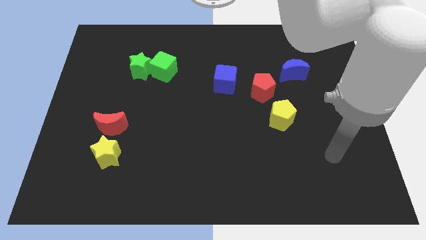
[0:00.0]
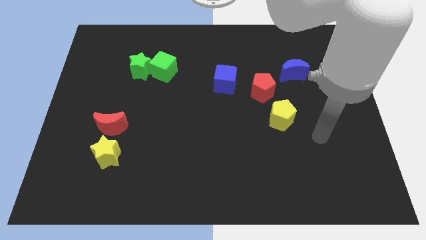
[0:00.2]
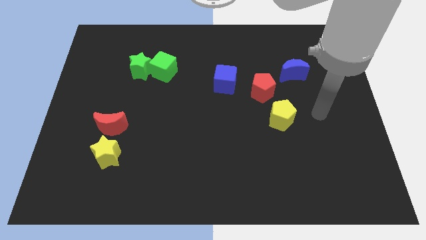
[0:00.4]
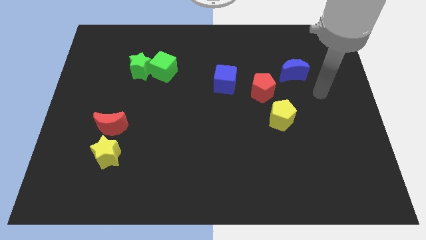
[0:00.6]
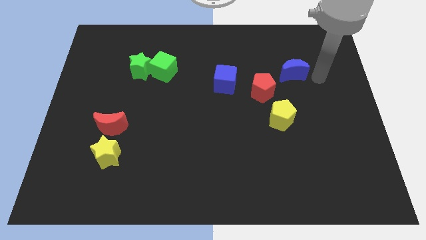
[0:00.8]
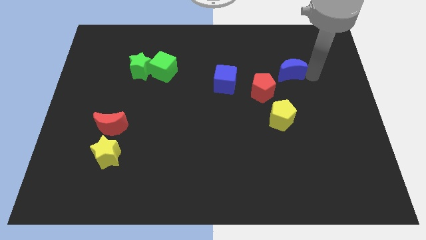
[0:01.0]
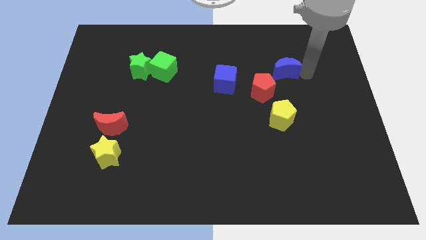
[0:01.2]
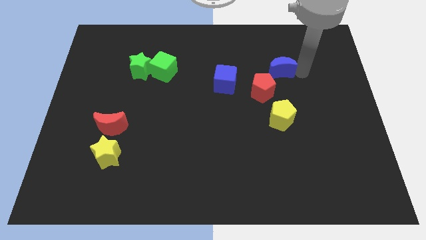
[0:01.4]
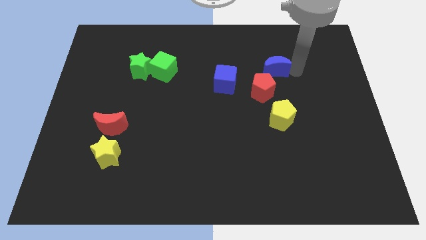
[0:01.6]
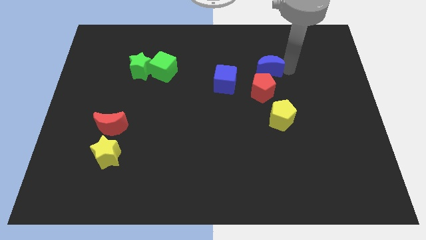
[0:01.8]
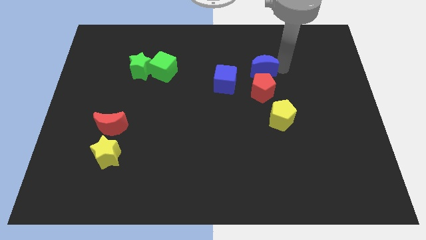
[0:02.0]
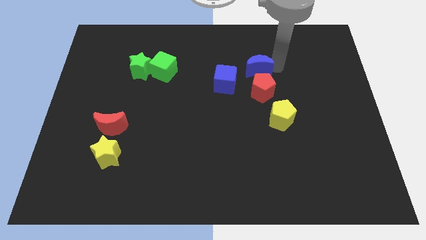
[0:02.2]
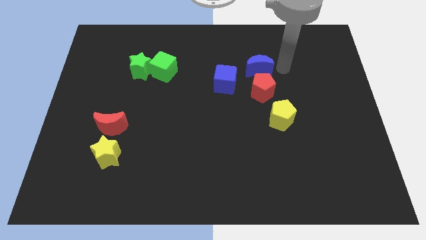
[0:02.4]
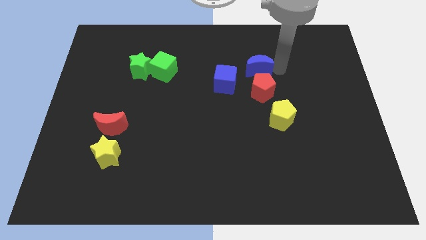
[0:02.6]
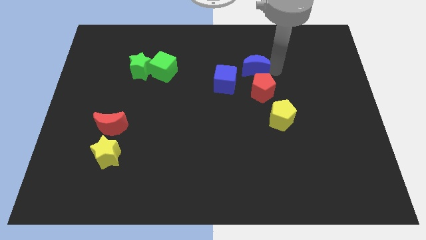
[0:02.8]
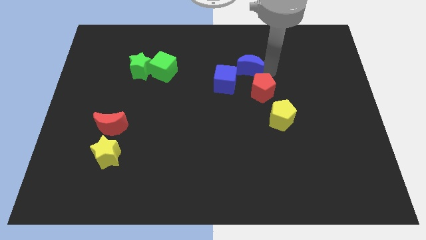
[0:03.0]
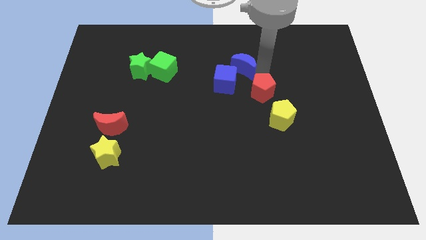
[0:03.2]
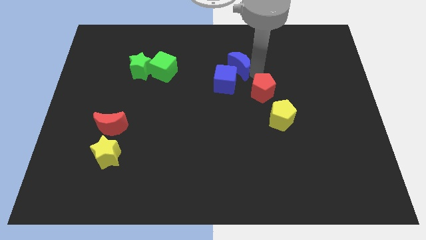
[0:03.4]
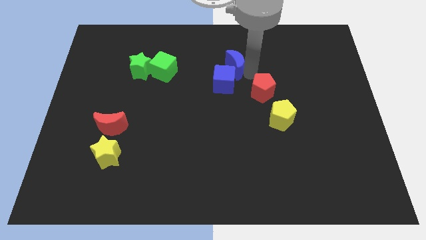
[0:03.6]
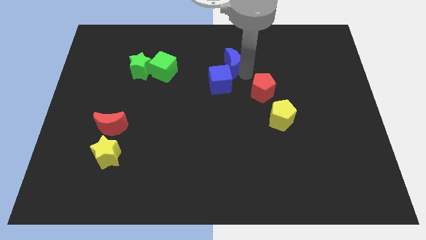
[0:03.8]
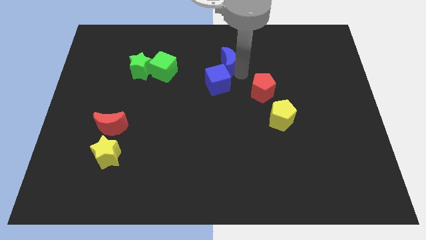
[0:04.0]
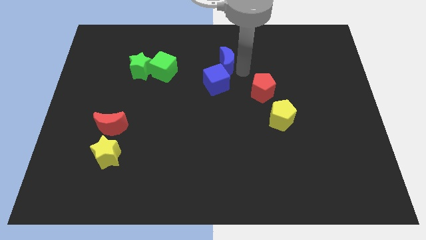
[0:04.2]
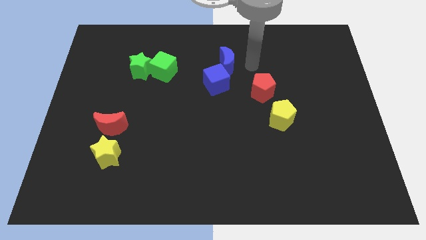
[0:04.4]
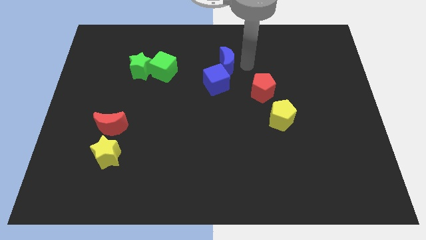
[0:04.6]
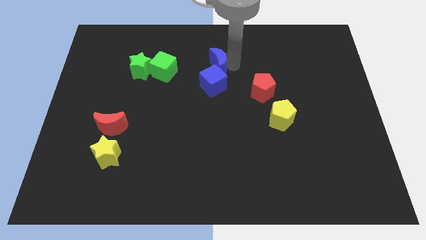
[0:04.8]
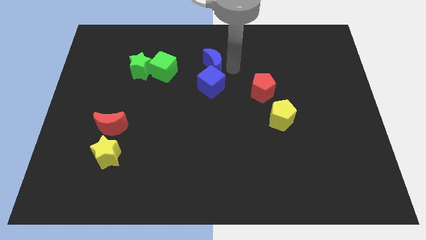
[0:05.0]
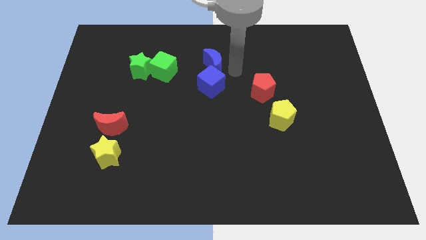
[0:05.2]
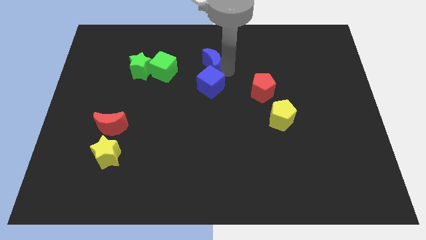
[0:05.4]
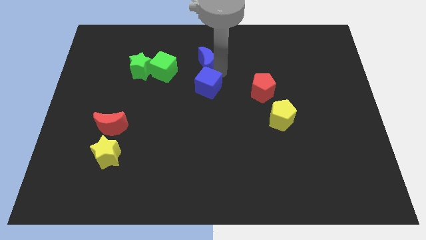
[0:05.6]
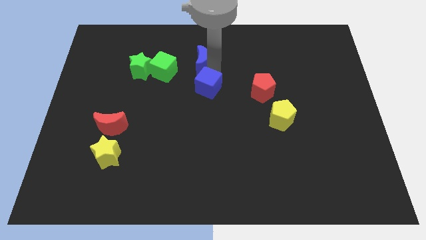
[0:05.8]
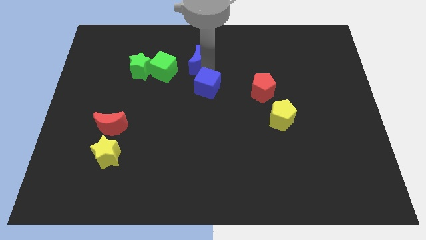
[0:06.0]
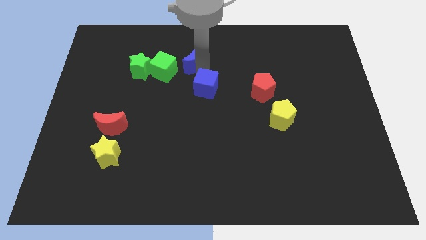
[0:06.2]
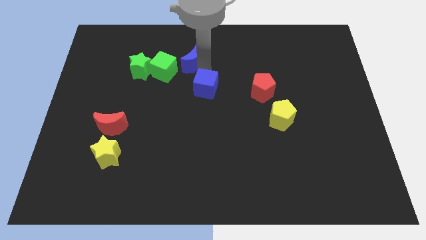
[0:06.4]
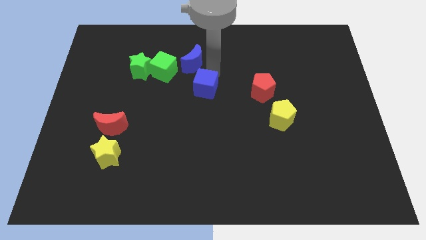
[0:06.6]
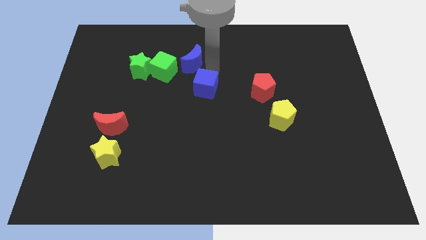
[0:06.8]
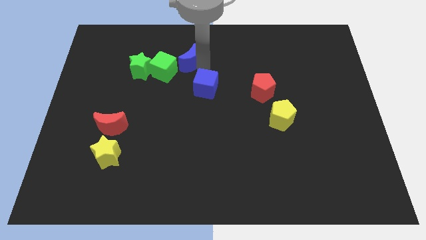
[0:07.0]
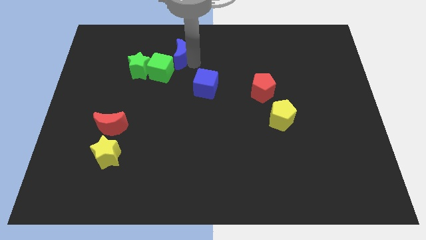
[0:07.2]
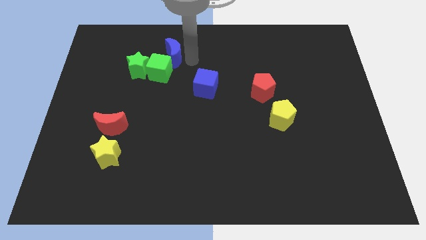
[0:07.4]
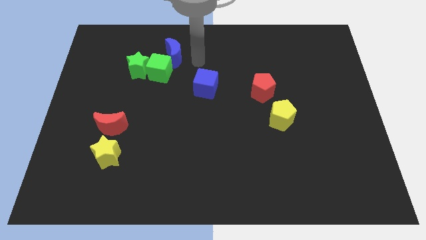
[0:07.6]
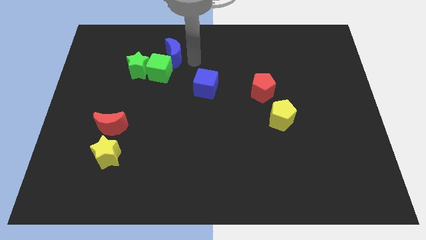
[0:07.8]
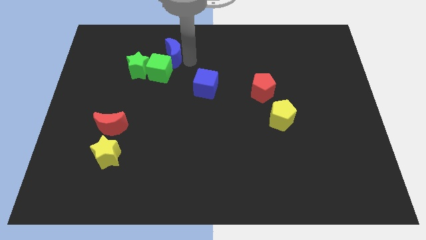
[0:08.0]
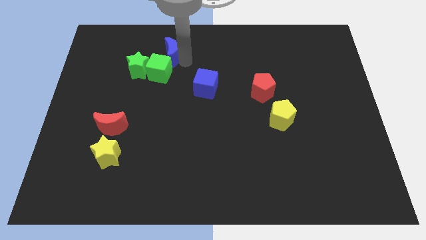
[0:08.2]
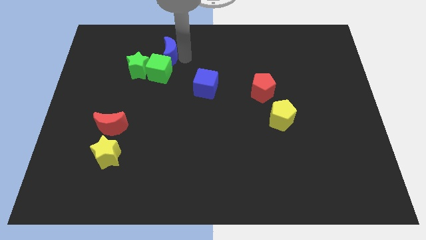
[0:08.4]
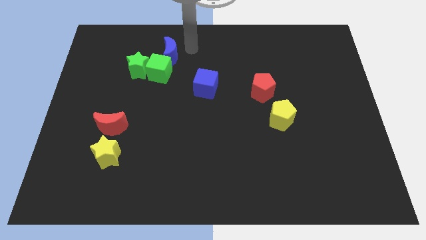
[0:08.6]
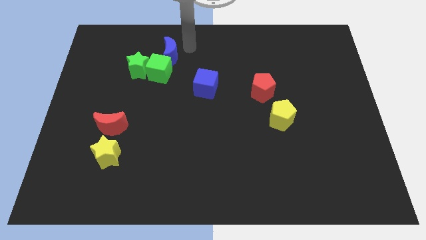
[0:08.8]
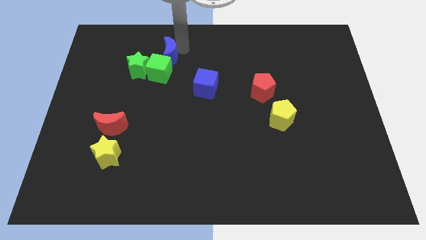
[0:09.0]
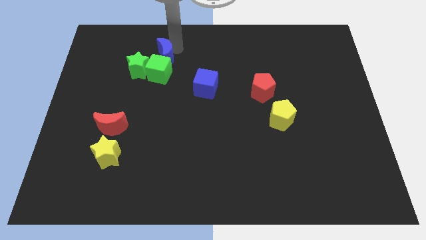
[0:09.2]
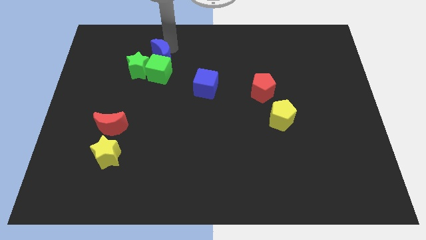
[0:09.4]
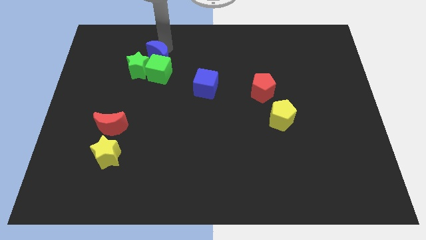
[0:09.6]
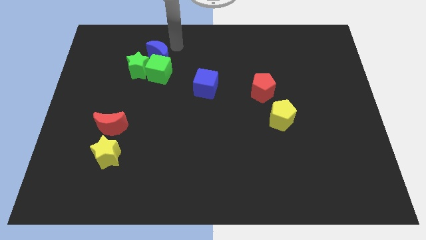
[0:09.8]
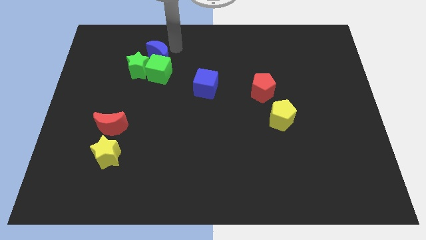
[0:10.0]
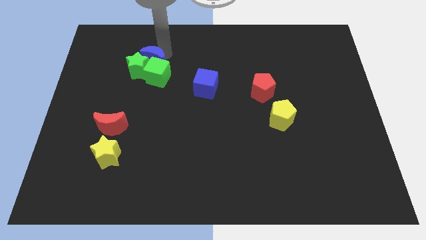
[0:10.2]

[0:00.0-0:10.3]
put the blue moon towards the green star

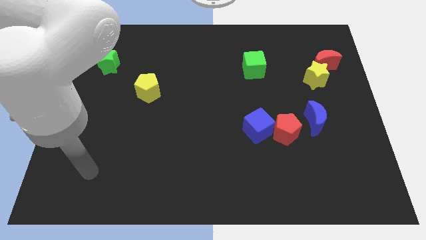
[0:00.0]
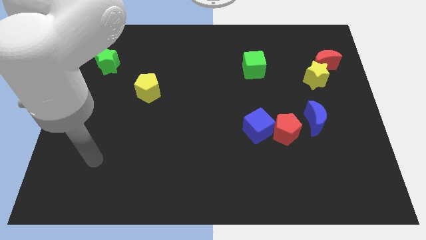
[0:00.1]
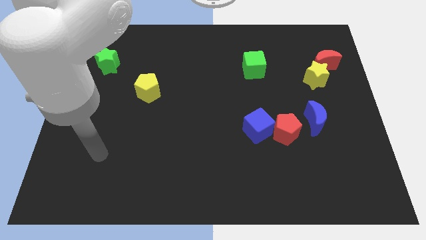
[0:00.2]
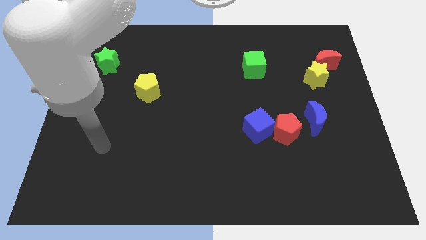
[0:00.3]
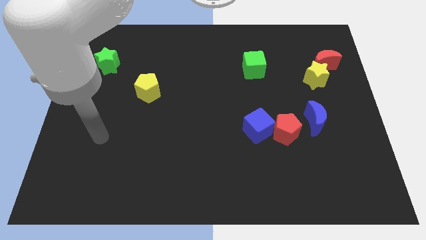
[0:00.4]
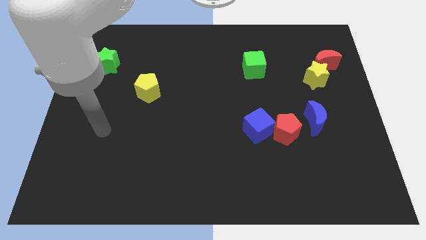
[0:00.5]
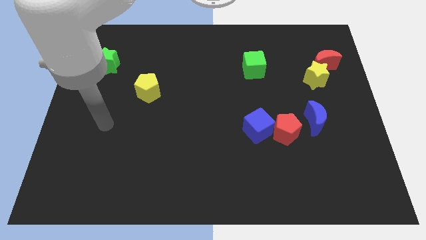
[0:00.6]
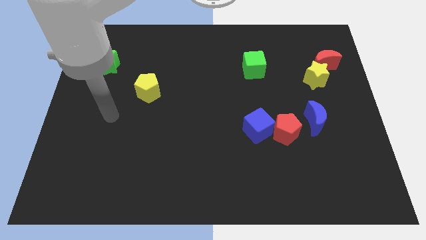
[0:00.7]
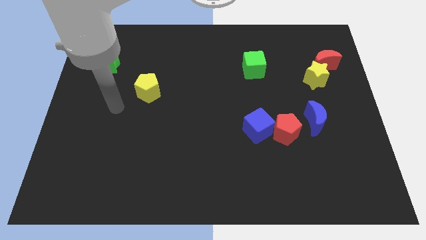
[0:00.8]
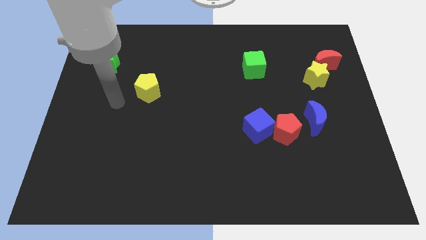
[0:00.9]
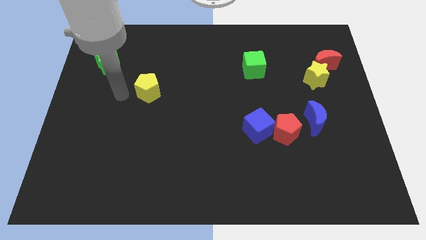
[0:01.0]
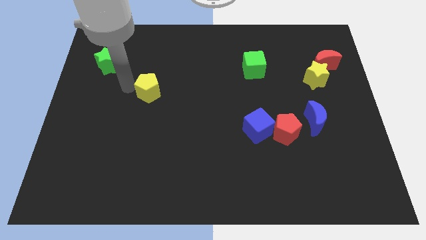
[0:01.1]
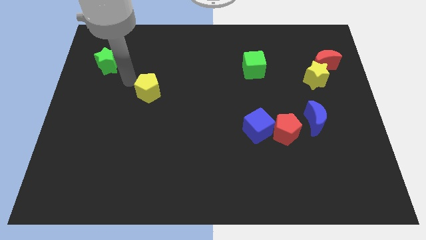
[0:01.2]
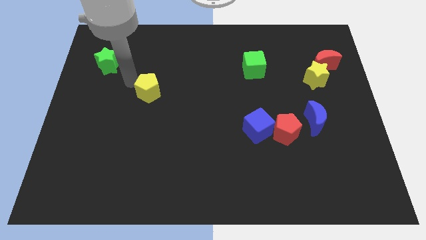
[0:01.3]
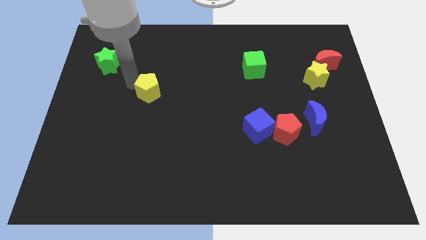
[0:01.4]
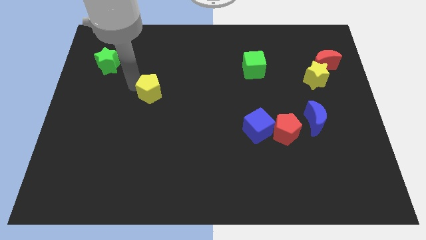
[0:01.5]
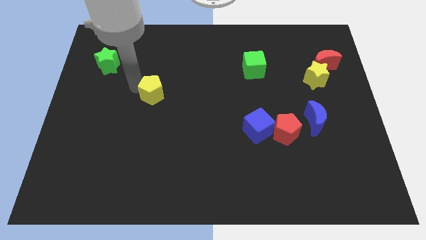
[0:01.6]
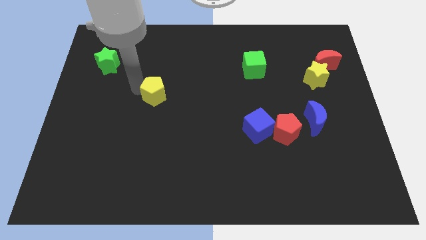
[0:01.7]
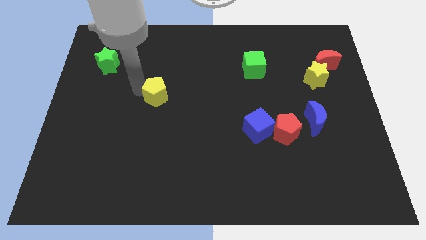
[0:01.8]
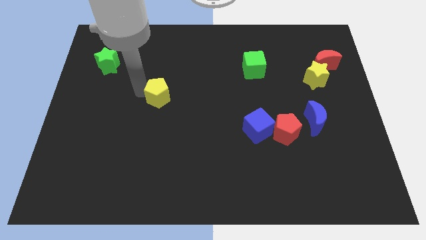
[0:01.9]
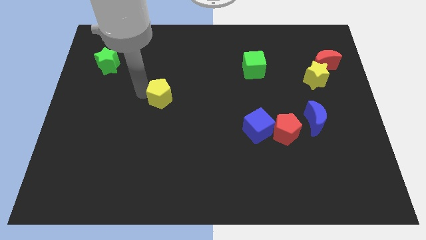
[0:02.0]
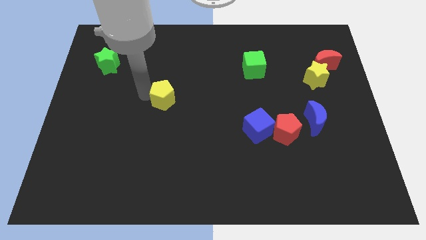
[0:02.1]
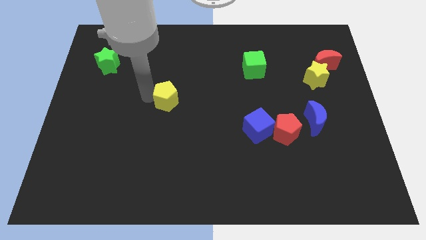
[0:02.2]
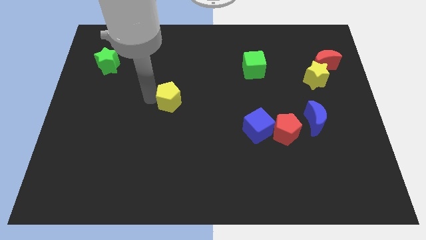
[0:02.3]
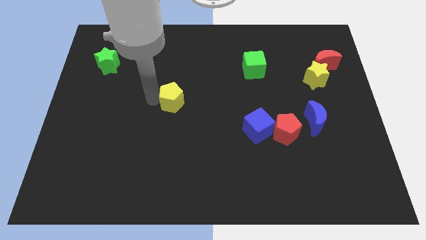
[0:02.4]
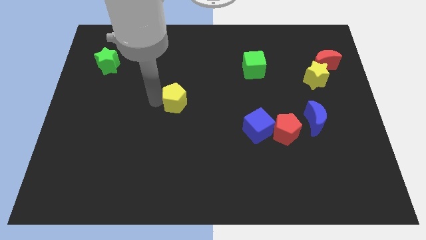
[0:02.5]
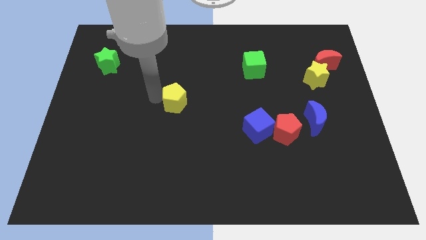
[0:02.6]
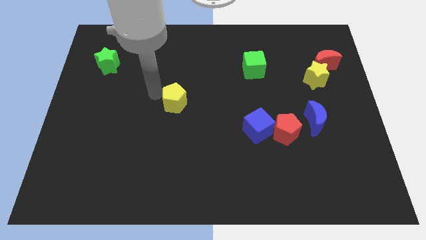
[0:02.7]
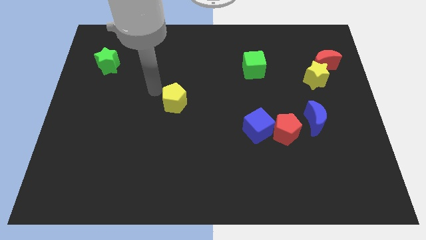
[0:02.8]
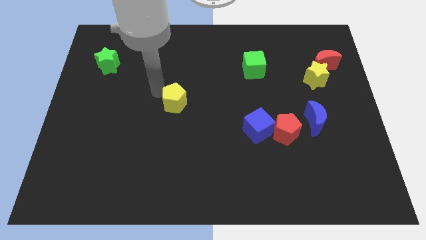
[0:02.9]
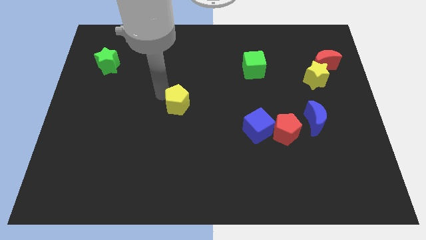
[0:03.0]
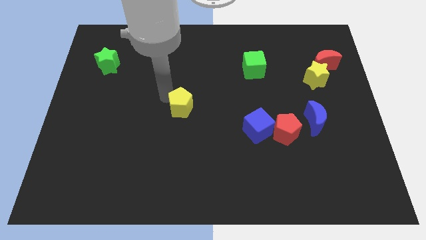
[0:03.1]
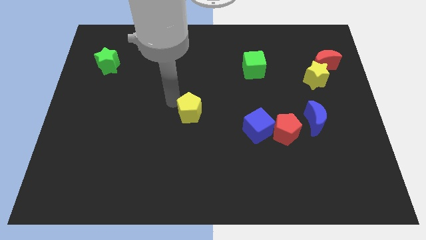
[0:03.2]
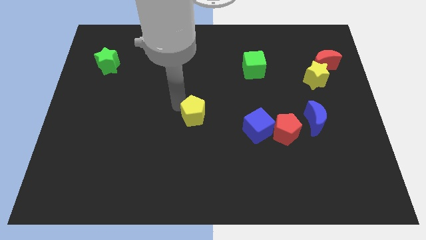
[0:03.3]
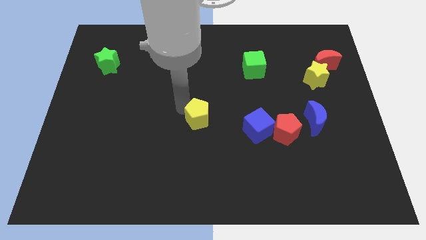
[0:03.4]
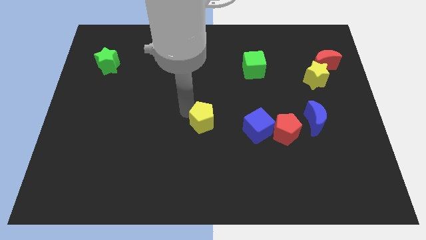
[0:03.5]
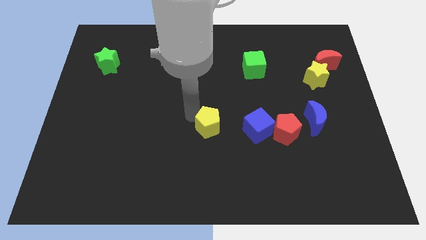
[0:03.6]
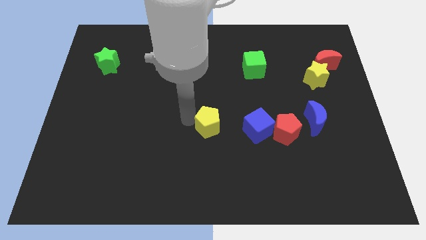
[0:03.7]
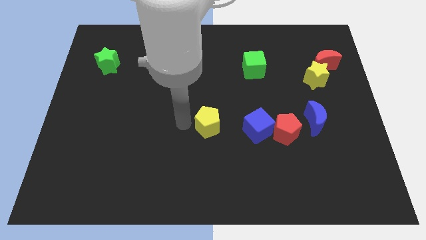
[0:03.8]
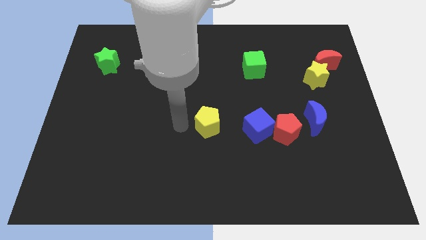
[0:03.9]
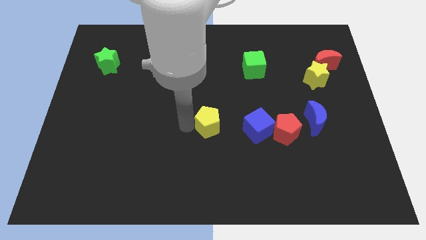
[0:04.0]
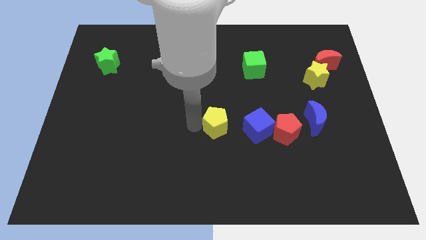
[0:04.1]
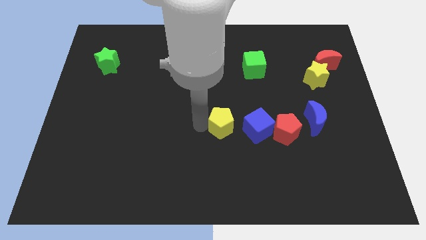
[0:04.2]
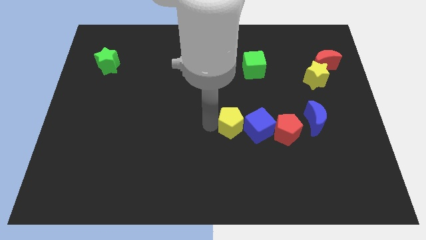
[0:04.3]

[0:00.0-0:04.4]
push the yellow pentagon next to the blue cube
